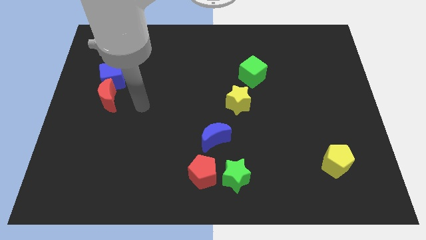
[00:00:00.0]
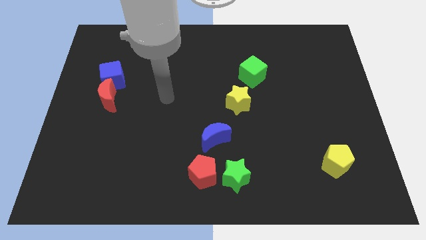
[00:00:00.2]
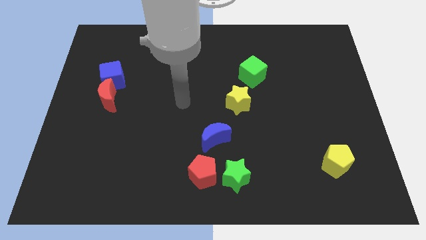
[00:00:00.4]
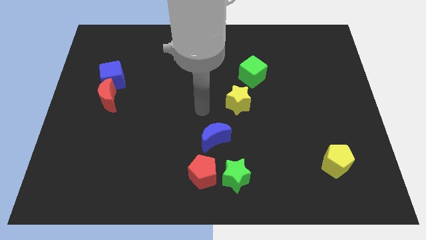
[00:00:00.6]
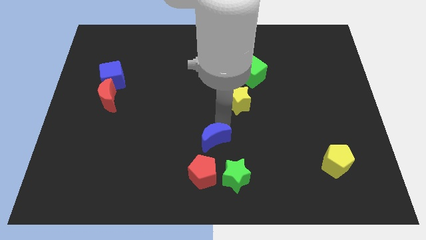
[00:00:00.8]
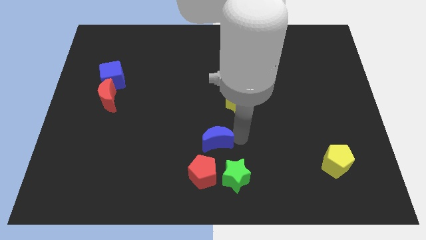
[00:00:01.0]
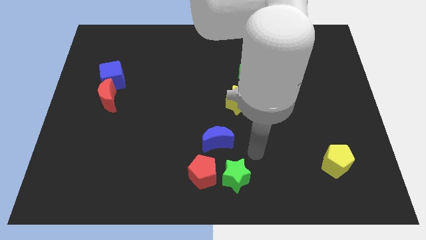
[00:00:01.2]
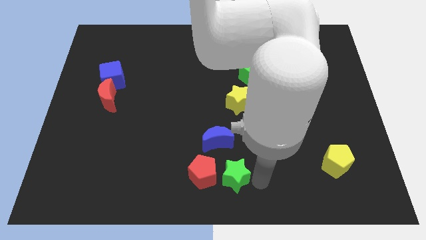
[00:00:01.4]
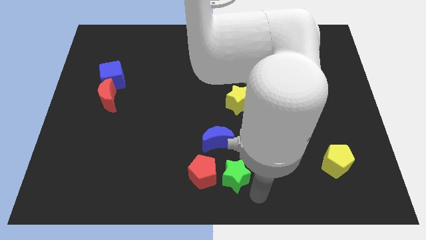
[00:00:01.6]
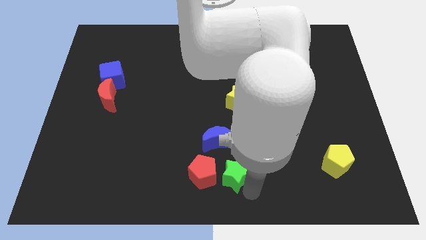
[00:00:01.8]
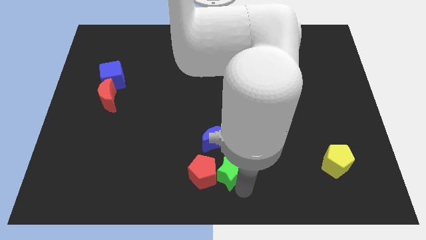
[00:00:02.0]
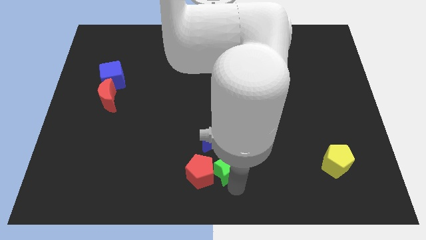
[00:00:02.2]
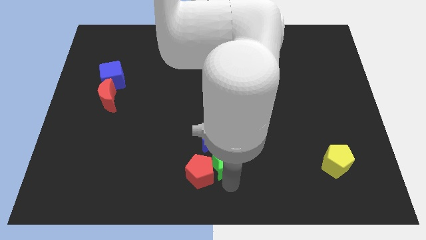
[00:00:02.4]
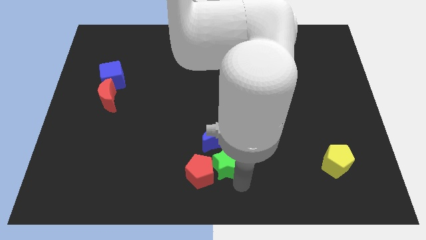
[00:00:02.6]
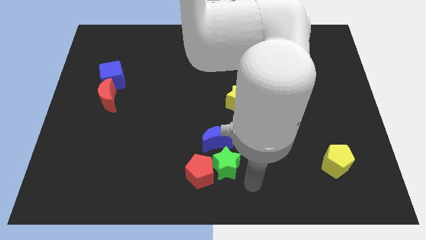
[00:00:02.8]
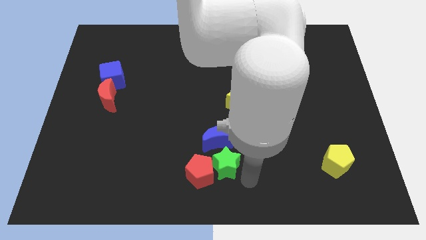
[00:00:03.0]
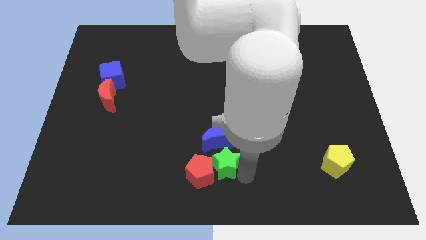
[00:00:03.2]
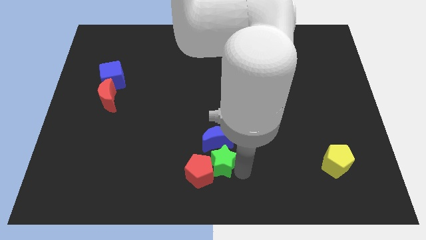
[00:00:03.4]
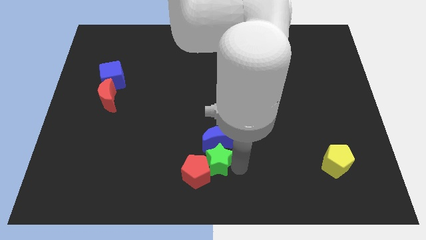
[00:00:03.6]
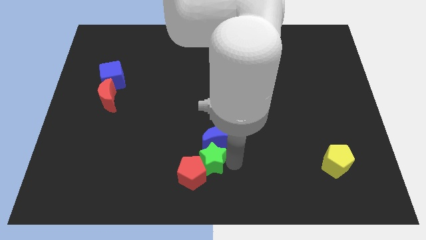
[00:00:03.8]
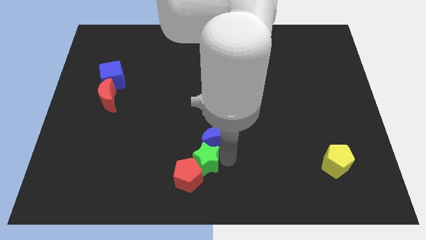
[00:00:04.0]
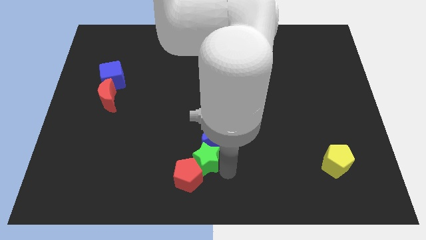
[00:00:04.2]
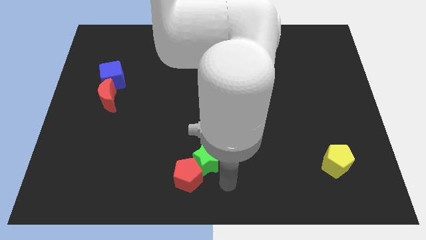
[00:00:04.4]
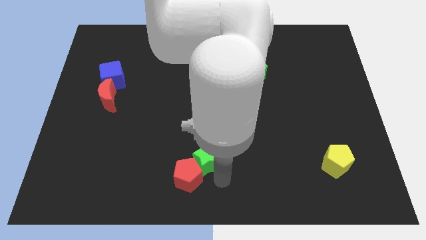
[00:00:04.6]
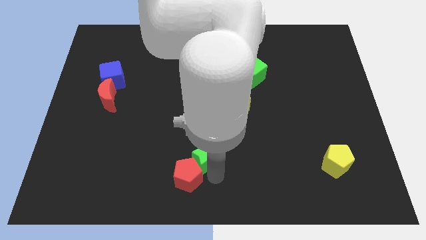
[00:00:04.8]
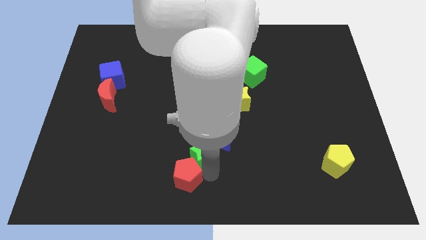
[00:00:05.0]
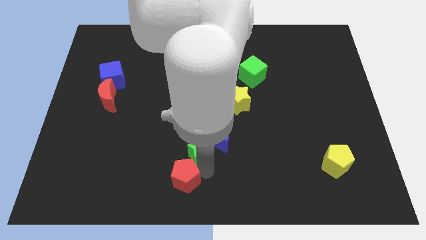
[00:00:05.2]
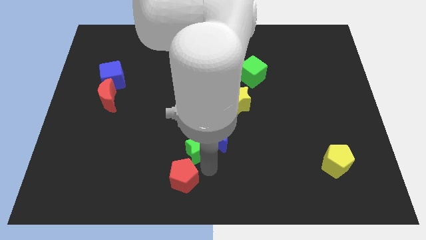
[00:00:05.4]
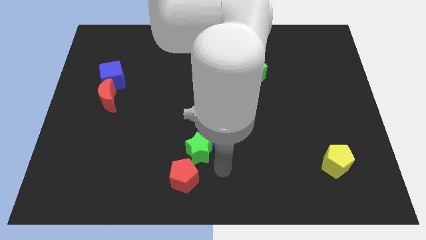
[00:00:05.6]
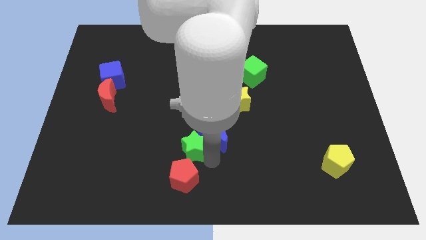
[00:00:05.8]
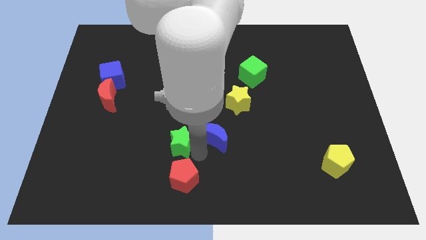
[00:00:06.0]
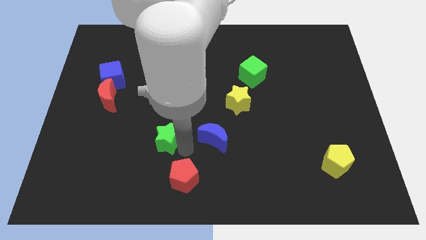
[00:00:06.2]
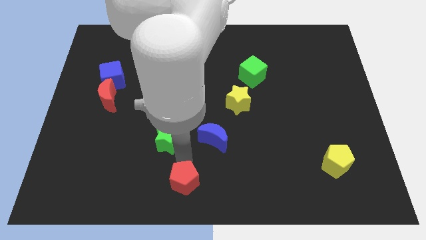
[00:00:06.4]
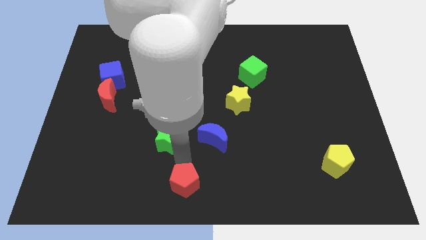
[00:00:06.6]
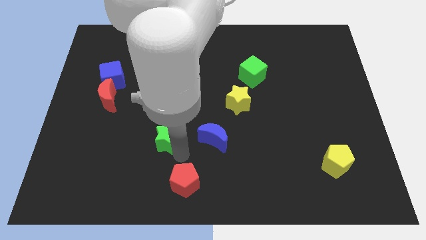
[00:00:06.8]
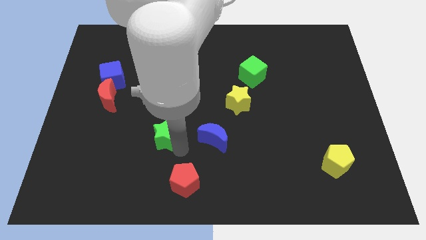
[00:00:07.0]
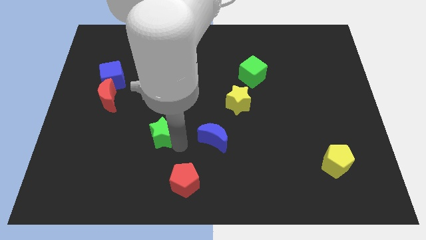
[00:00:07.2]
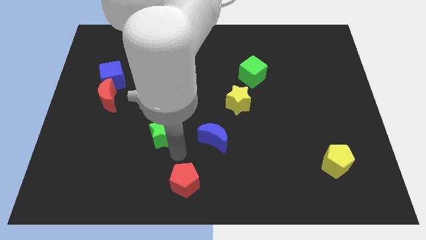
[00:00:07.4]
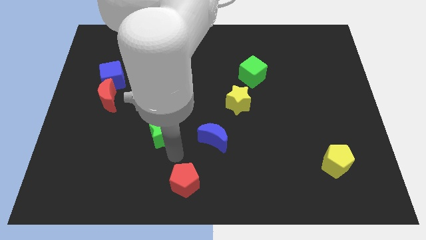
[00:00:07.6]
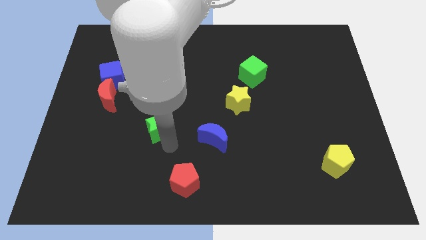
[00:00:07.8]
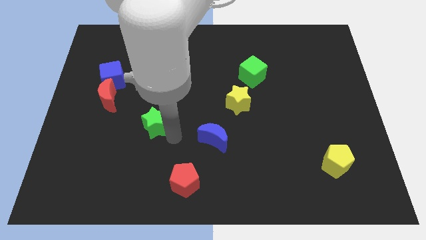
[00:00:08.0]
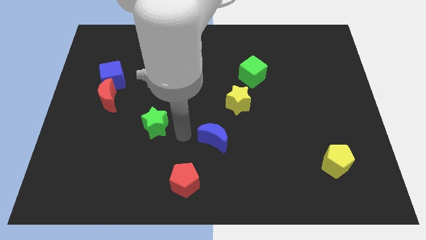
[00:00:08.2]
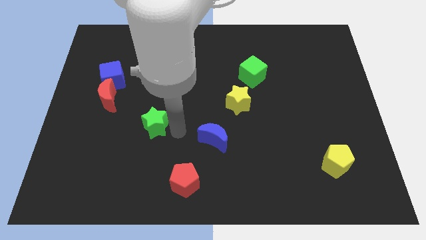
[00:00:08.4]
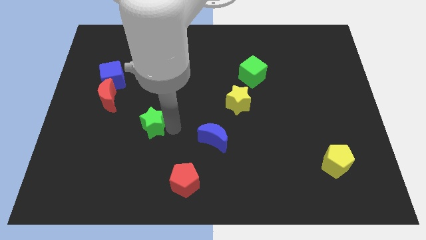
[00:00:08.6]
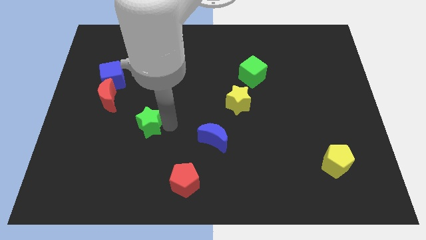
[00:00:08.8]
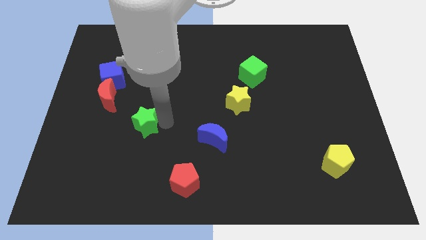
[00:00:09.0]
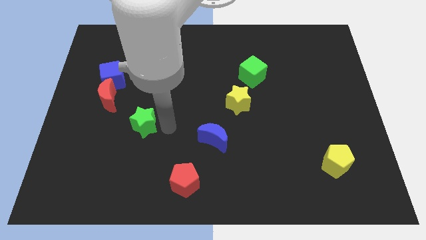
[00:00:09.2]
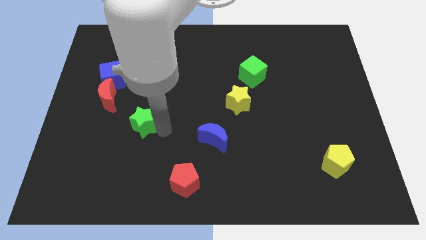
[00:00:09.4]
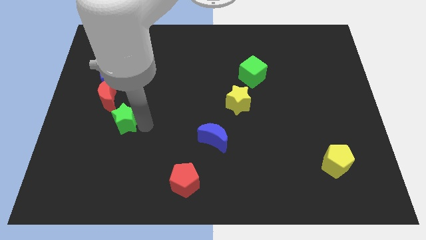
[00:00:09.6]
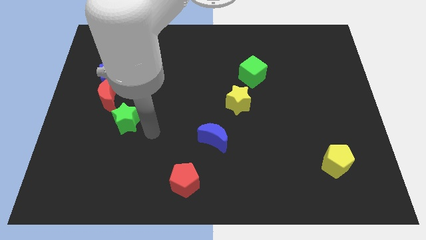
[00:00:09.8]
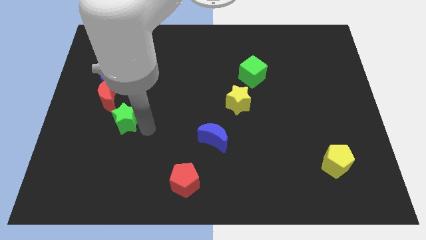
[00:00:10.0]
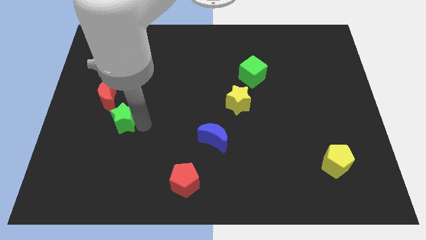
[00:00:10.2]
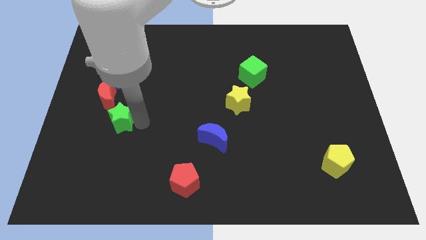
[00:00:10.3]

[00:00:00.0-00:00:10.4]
slide the green star below the blue cube

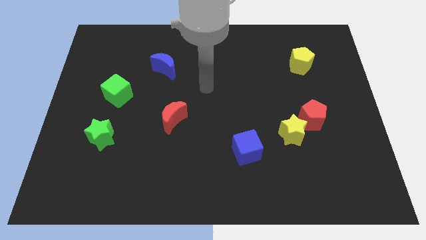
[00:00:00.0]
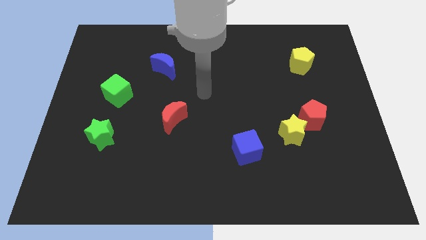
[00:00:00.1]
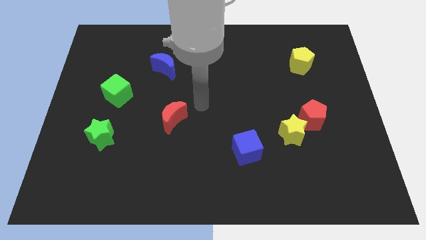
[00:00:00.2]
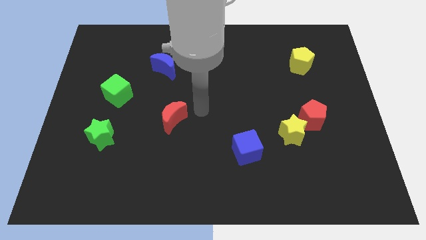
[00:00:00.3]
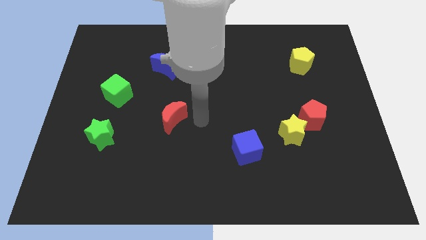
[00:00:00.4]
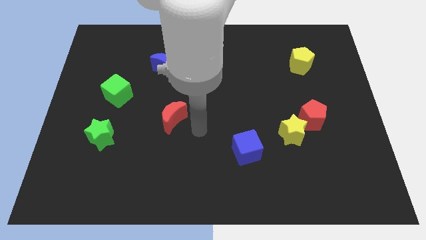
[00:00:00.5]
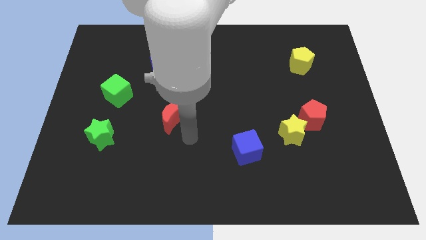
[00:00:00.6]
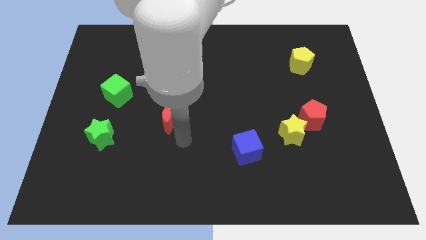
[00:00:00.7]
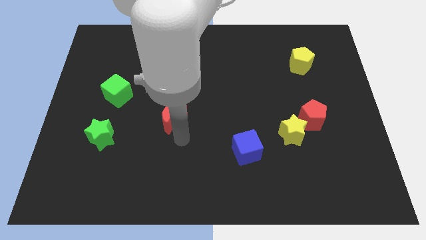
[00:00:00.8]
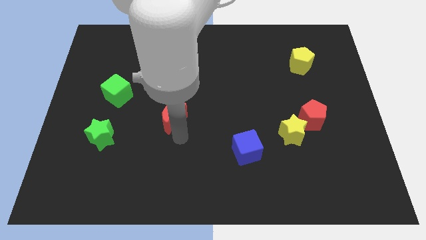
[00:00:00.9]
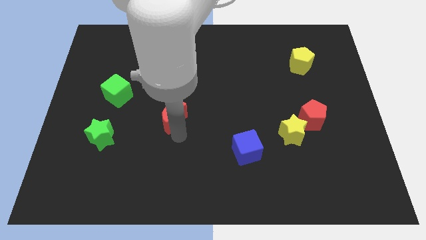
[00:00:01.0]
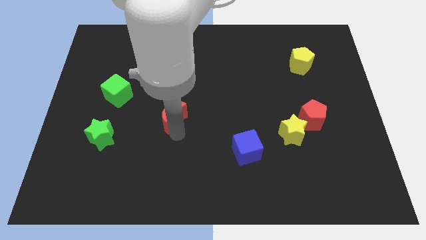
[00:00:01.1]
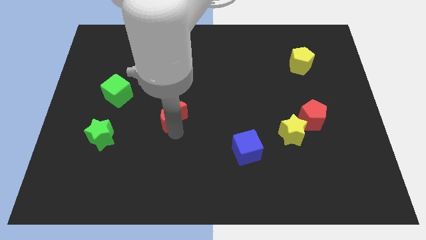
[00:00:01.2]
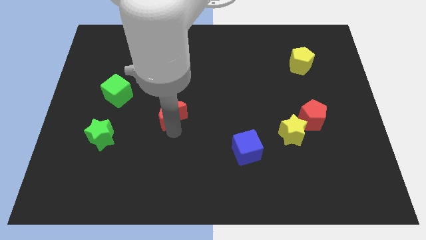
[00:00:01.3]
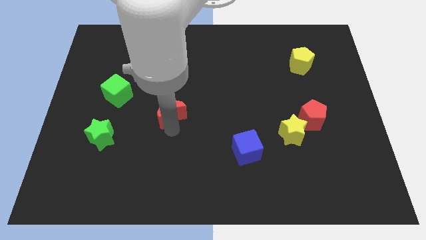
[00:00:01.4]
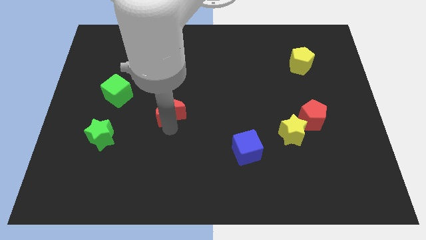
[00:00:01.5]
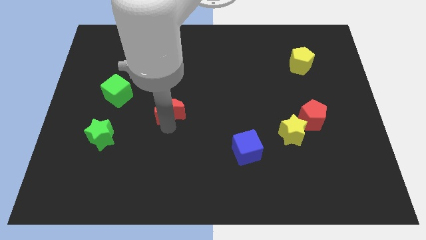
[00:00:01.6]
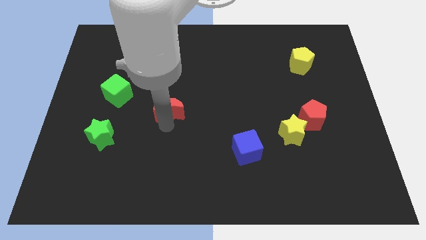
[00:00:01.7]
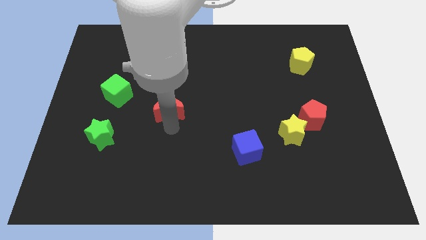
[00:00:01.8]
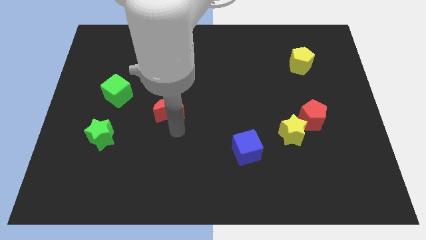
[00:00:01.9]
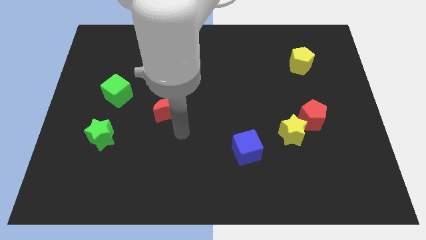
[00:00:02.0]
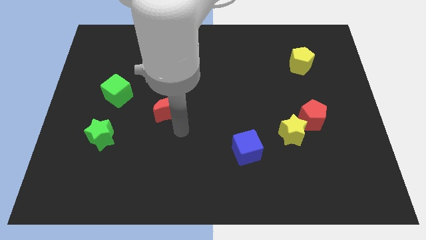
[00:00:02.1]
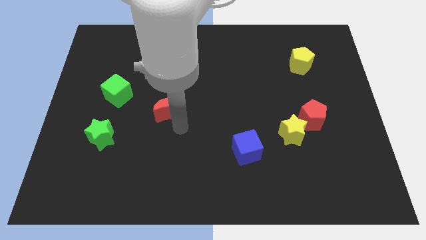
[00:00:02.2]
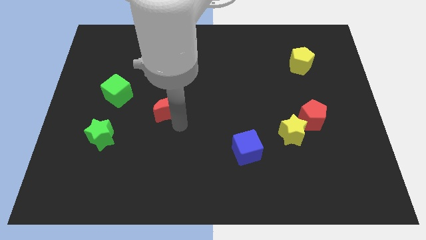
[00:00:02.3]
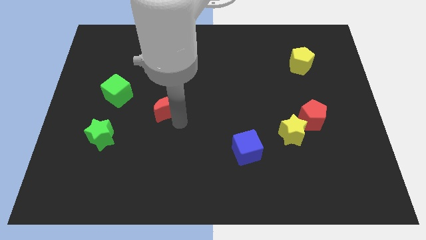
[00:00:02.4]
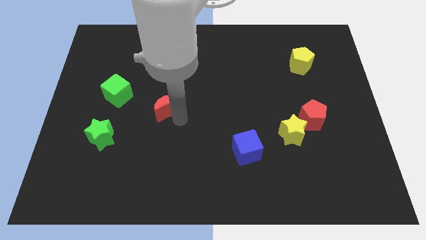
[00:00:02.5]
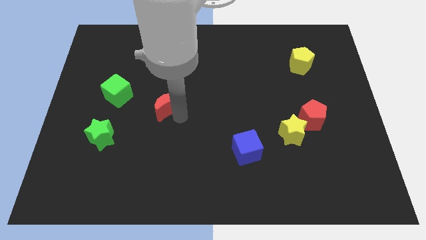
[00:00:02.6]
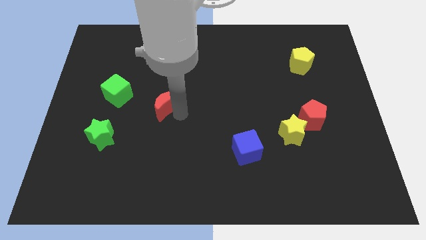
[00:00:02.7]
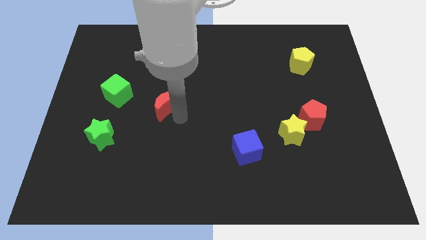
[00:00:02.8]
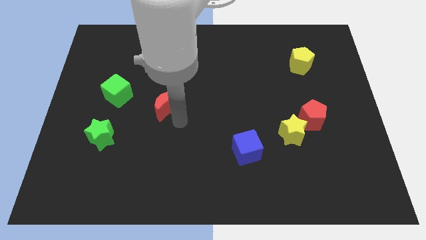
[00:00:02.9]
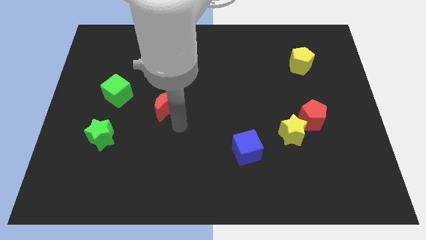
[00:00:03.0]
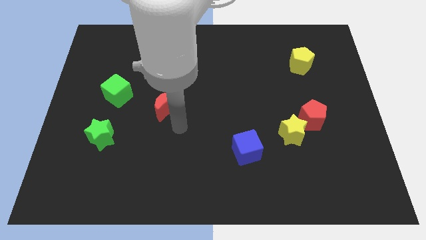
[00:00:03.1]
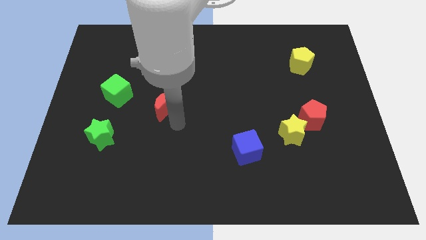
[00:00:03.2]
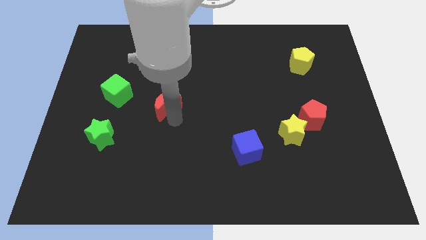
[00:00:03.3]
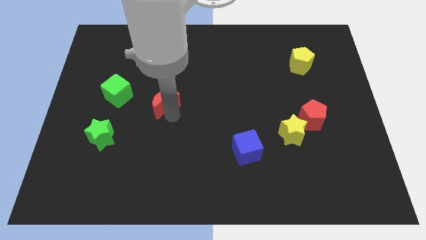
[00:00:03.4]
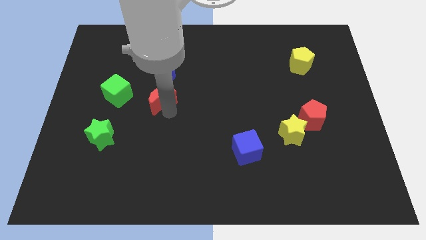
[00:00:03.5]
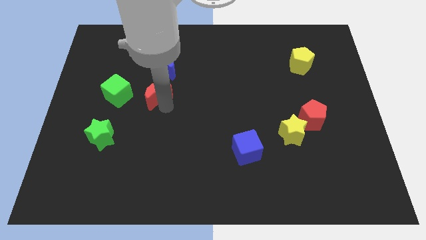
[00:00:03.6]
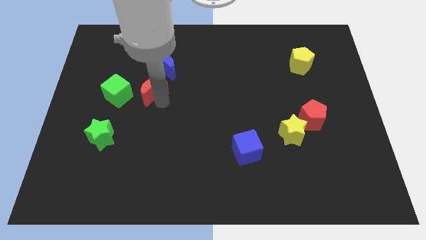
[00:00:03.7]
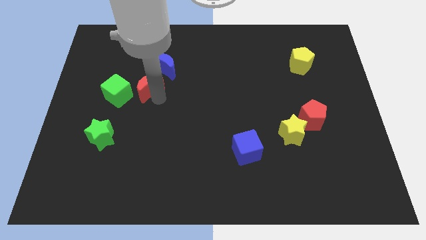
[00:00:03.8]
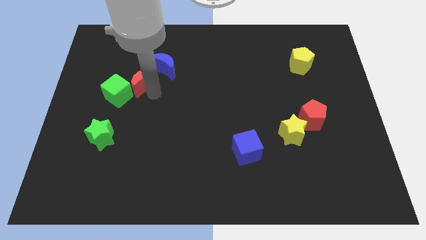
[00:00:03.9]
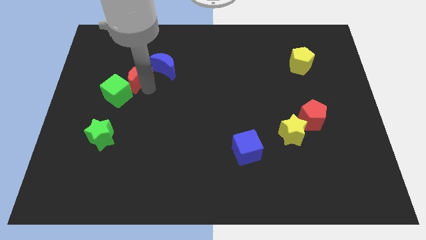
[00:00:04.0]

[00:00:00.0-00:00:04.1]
move the red moon left of the blue moon
